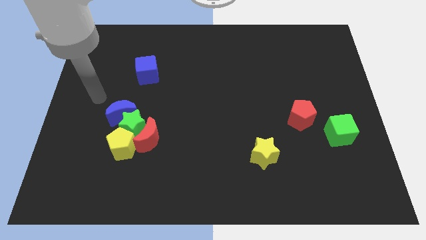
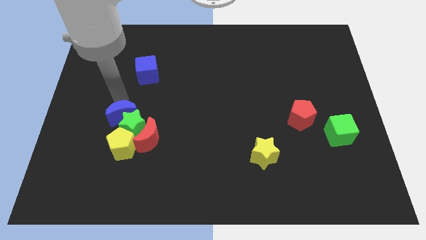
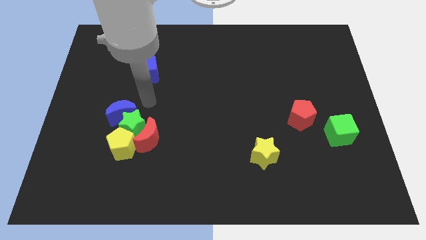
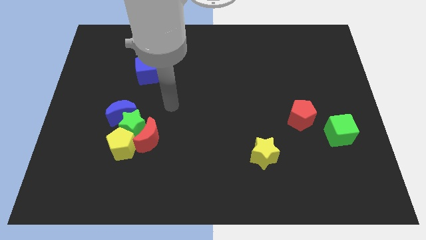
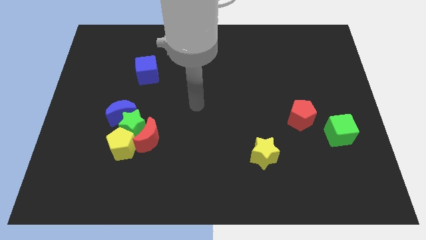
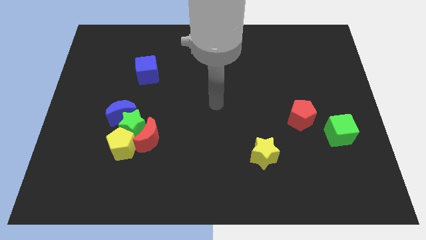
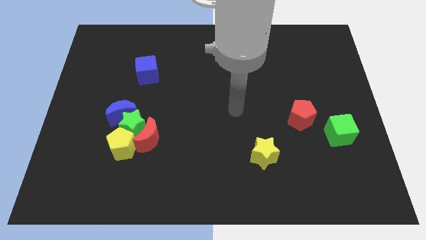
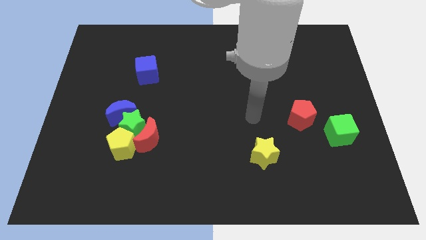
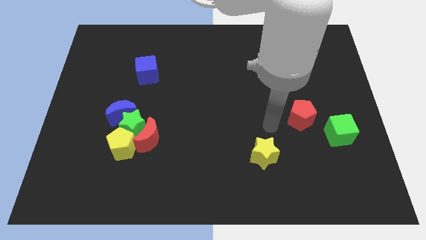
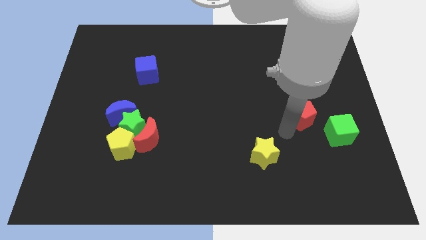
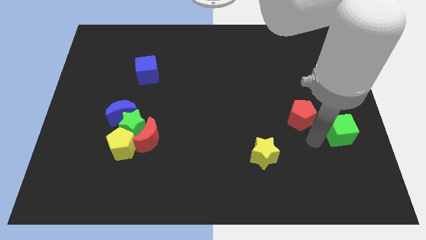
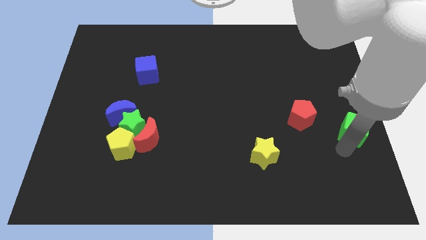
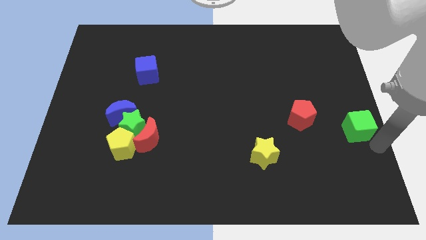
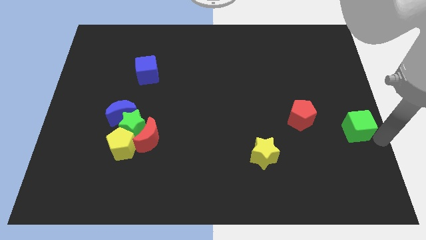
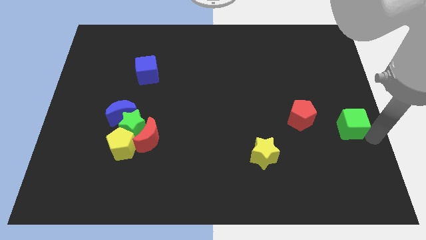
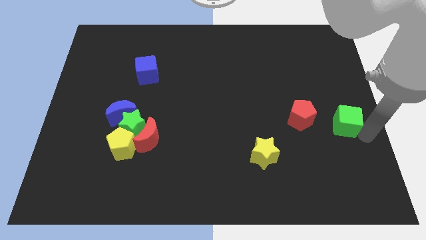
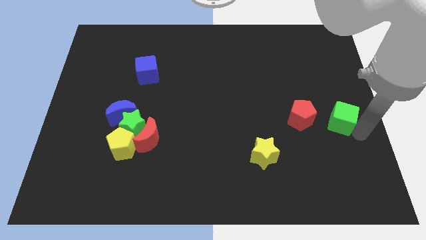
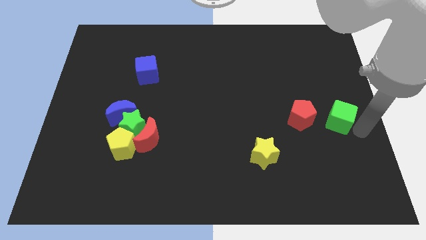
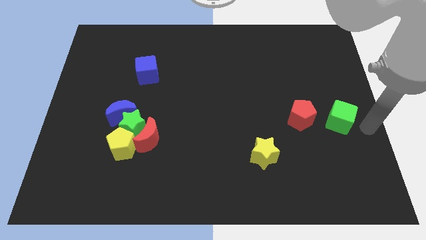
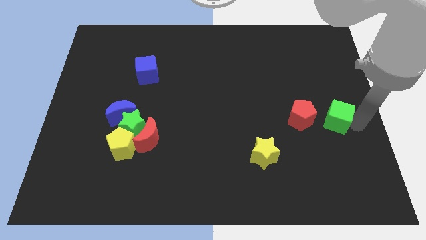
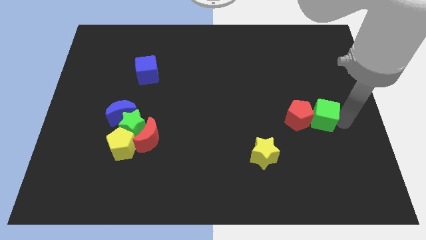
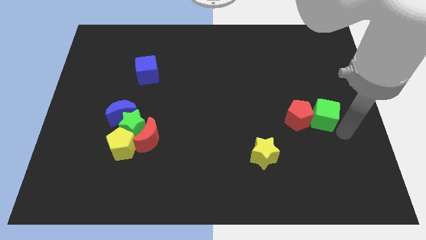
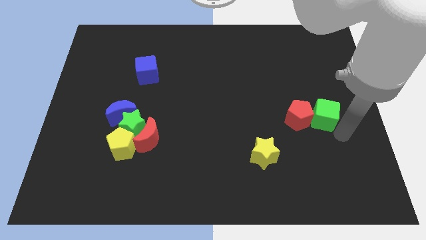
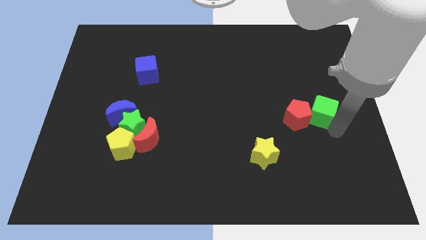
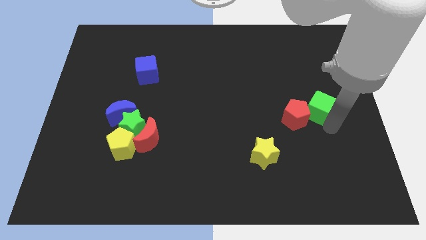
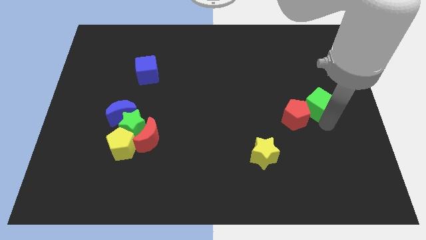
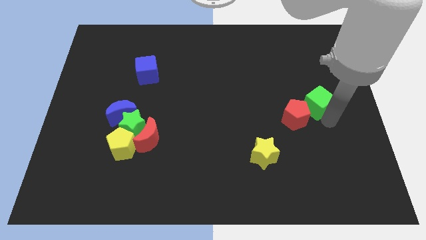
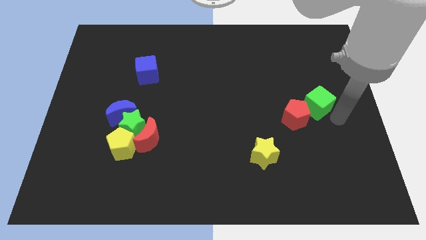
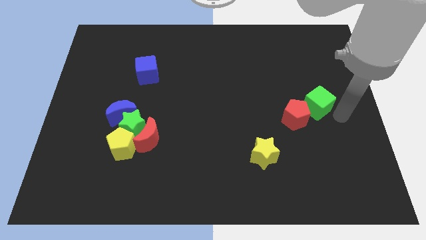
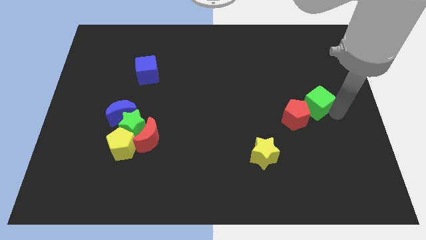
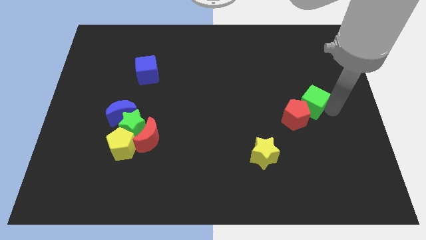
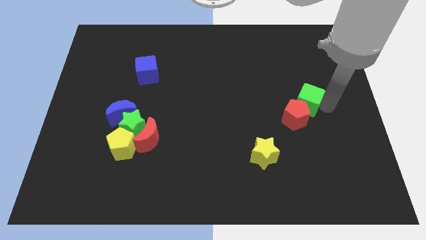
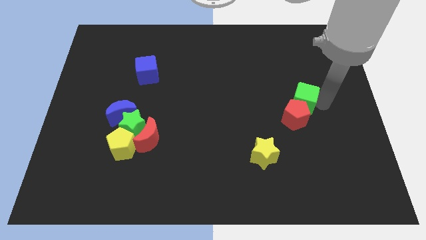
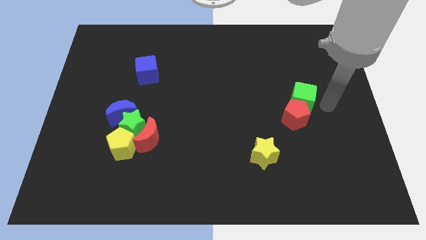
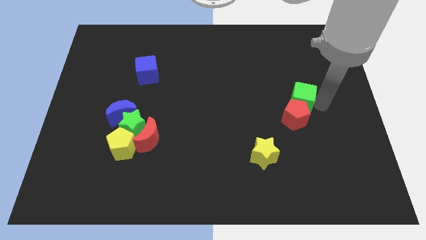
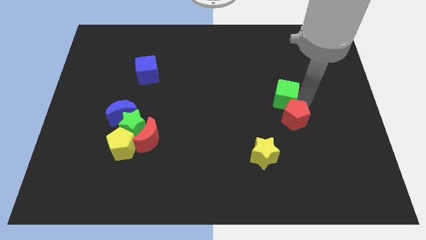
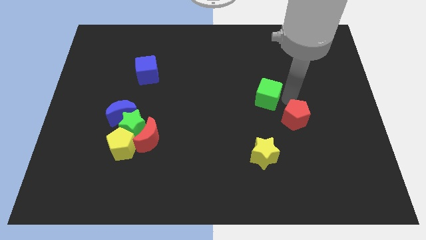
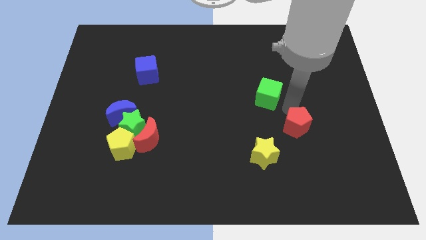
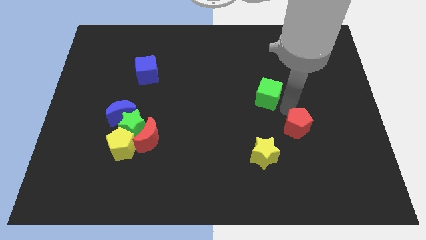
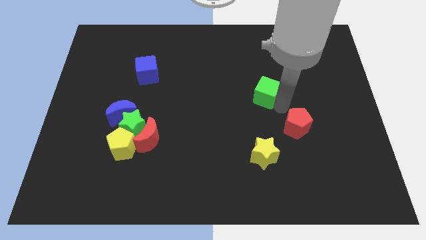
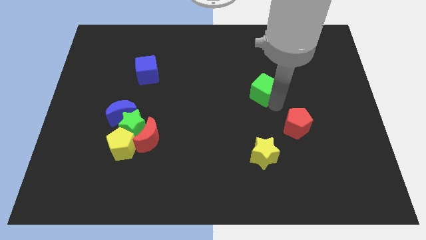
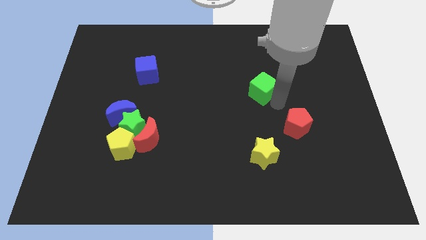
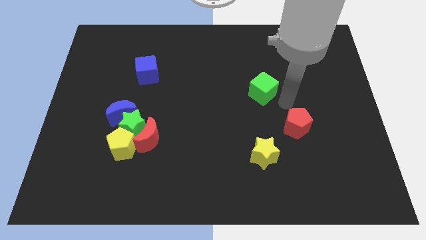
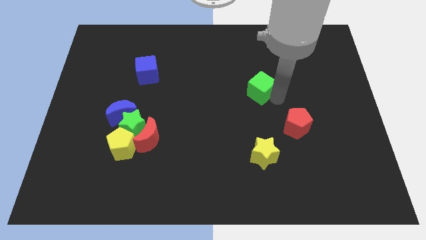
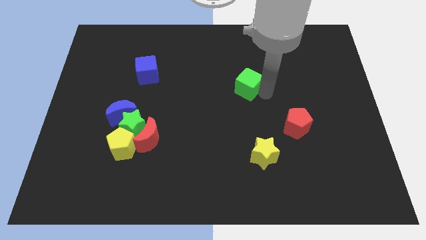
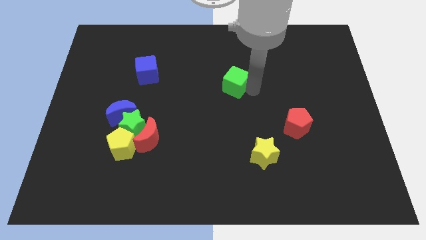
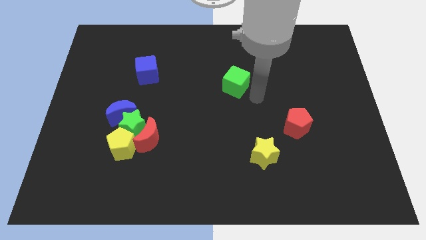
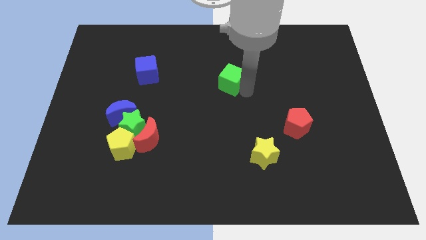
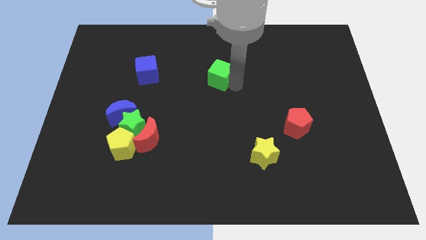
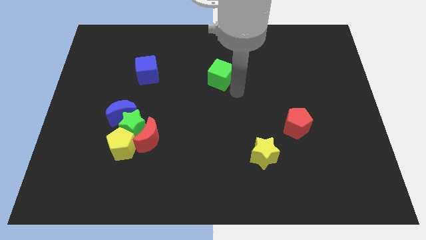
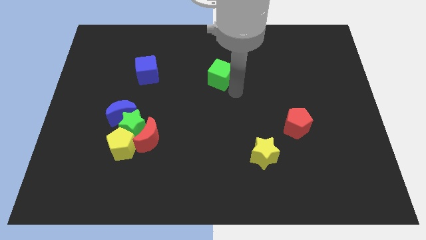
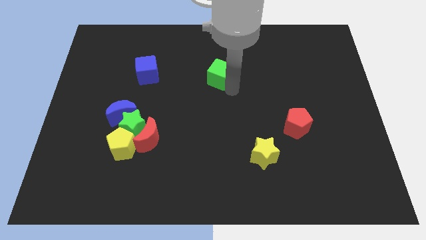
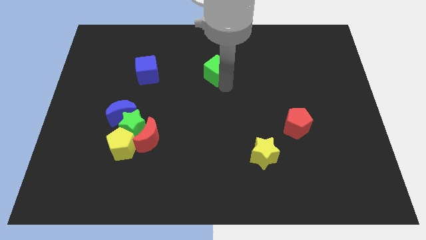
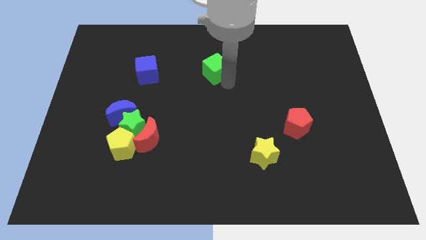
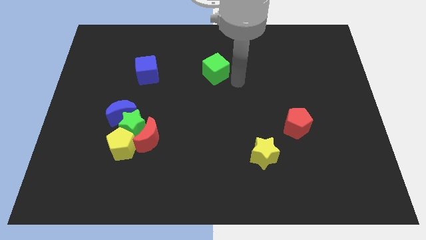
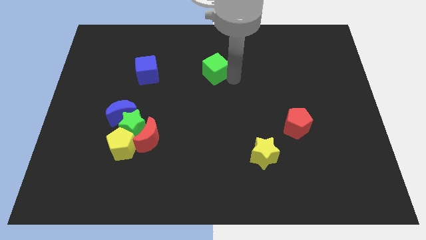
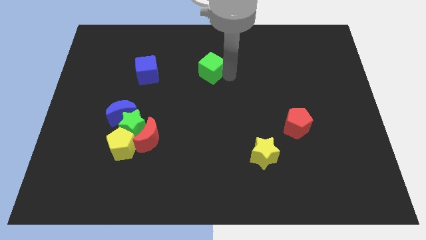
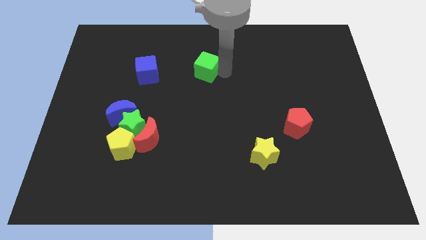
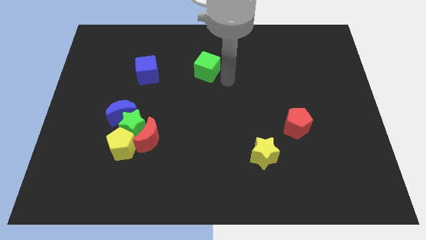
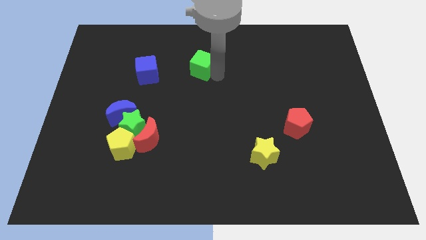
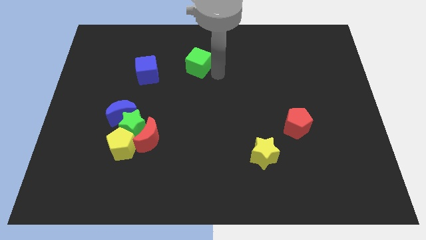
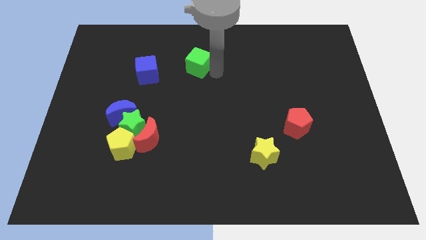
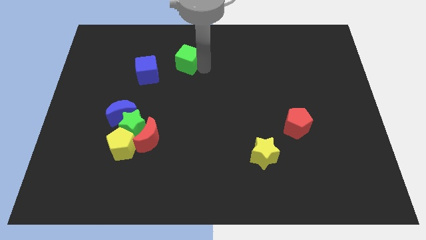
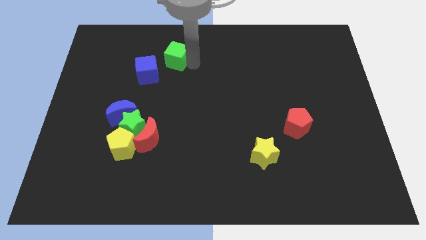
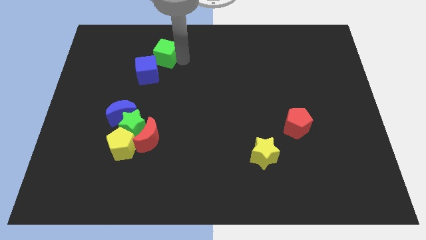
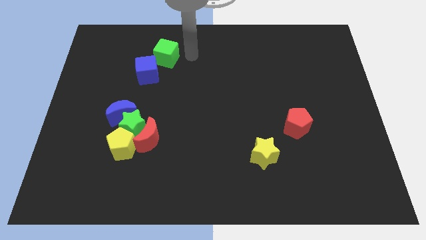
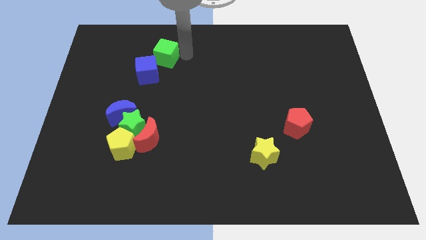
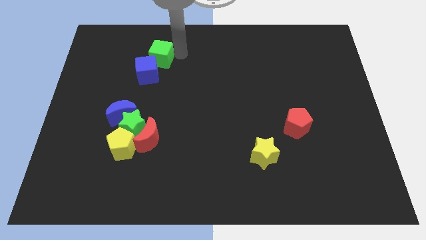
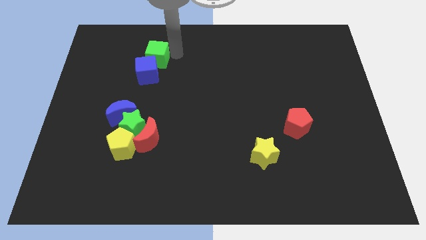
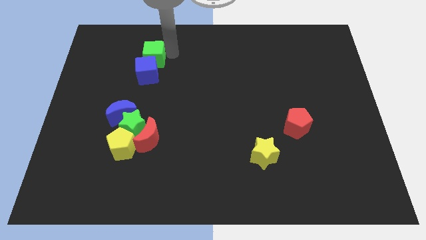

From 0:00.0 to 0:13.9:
slide the green cube diagonally up and to the left of the blue cube
